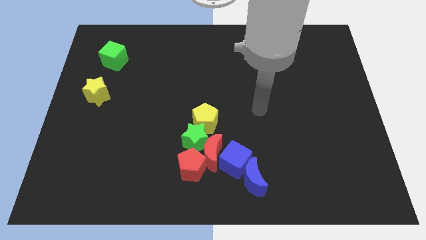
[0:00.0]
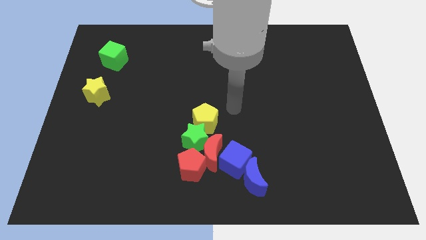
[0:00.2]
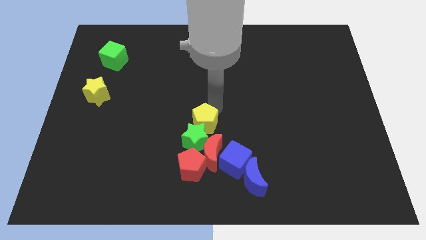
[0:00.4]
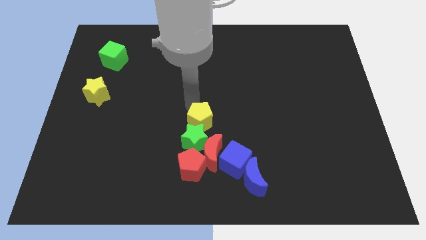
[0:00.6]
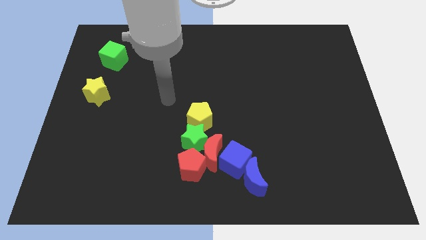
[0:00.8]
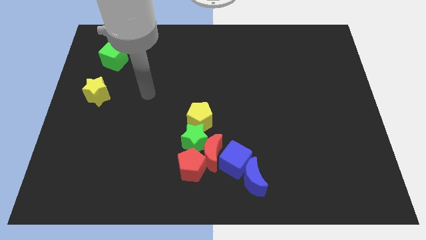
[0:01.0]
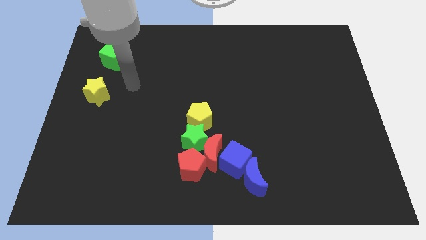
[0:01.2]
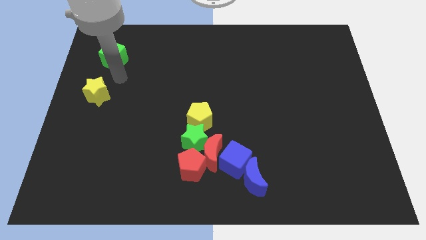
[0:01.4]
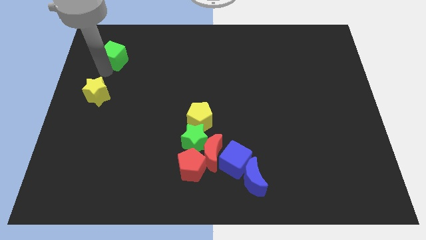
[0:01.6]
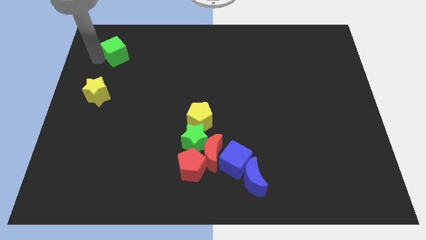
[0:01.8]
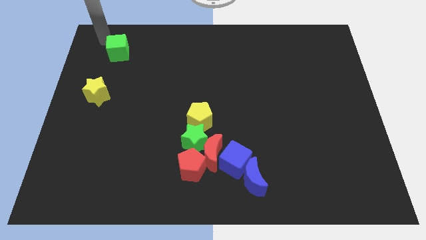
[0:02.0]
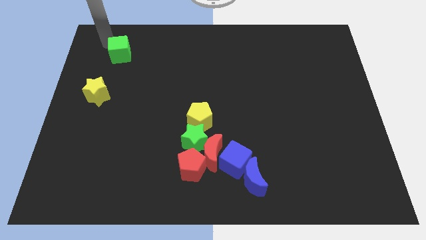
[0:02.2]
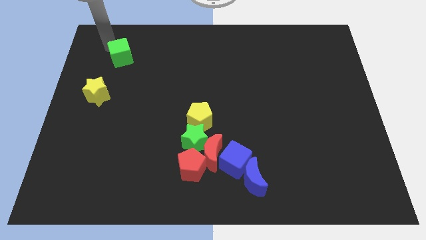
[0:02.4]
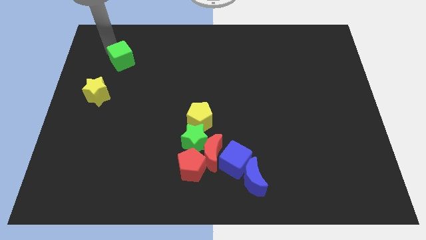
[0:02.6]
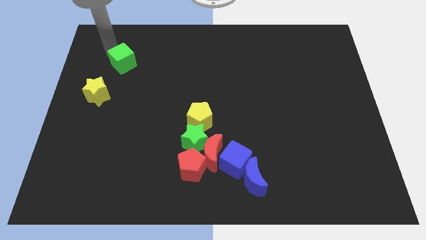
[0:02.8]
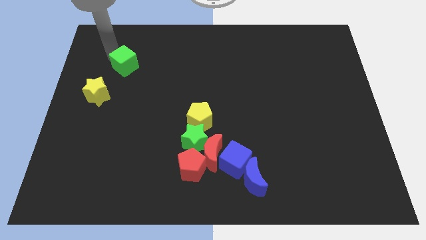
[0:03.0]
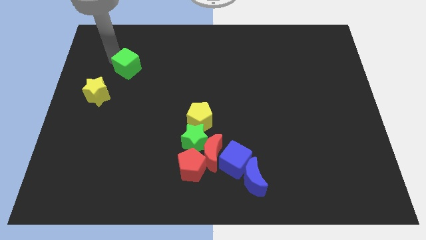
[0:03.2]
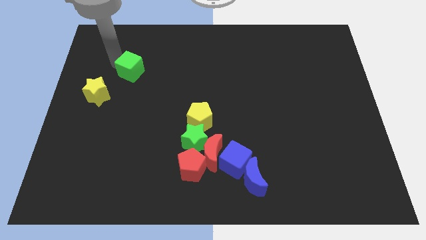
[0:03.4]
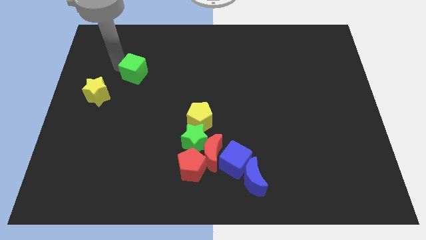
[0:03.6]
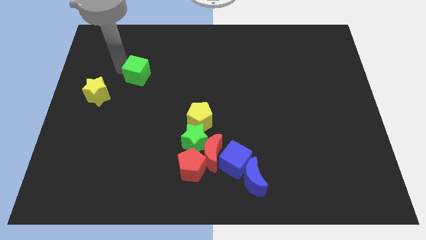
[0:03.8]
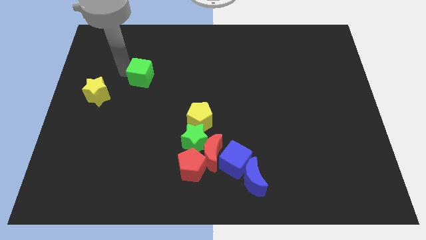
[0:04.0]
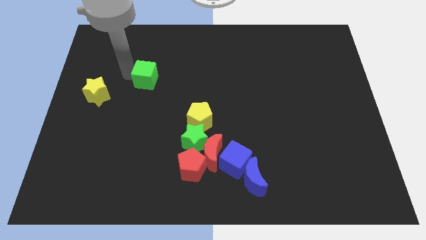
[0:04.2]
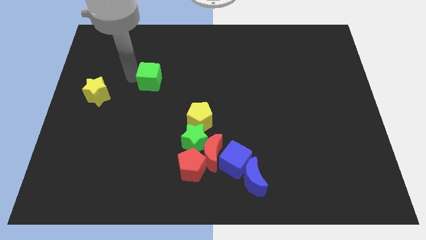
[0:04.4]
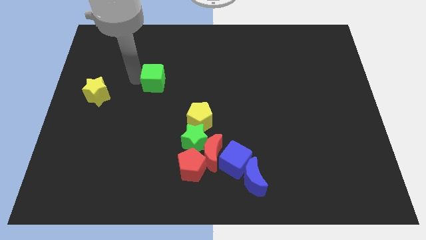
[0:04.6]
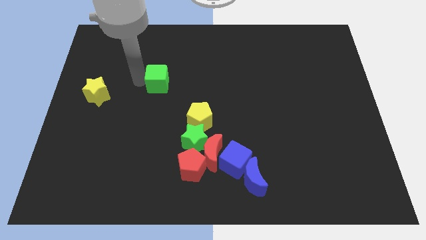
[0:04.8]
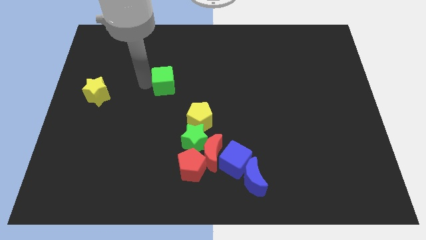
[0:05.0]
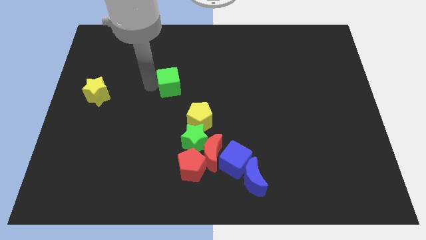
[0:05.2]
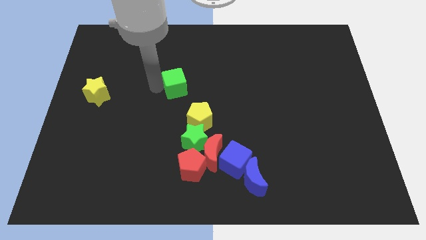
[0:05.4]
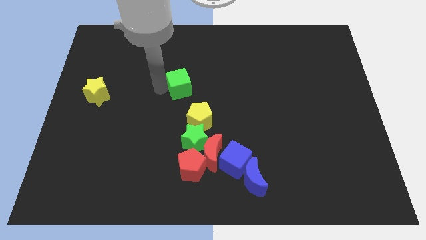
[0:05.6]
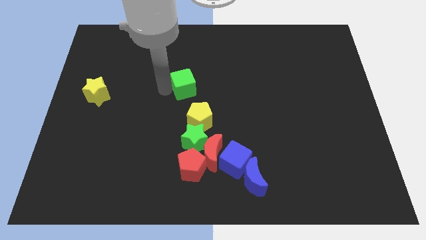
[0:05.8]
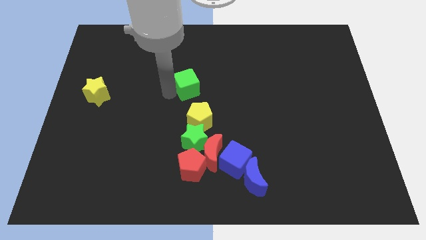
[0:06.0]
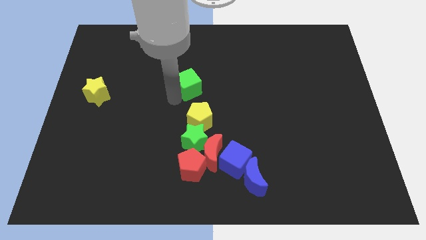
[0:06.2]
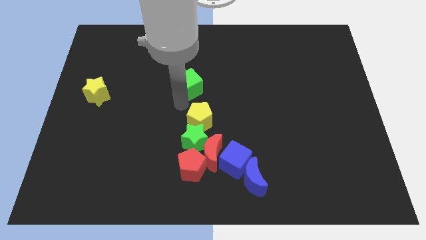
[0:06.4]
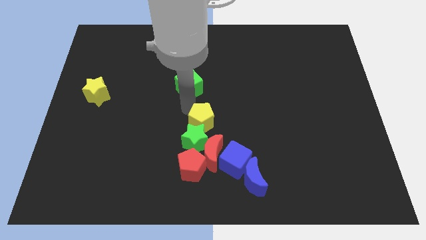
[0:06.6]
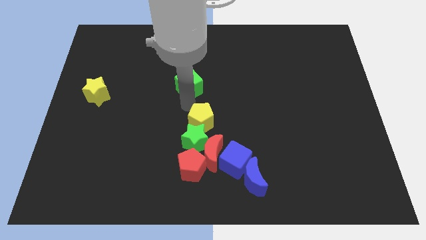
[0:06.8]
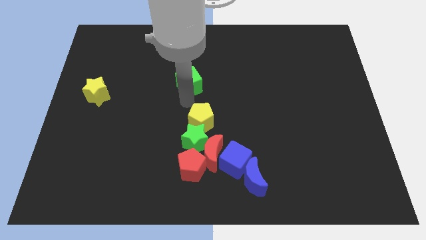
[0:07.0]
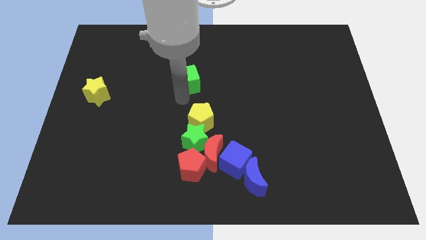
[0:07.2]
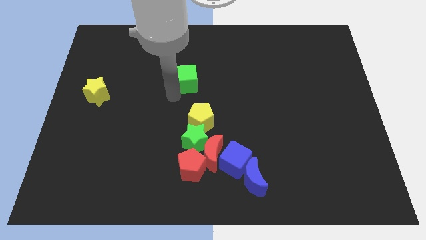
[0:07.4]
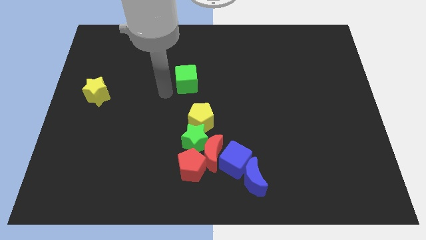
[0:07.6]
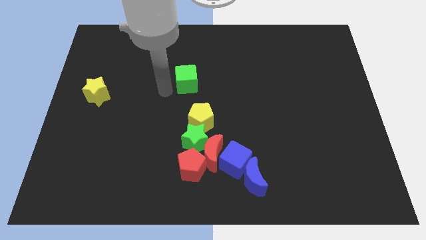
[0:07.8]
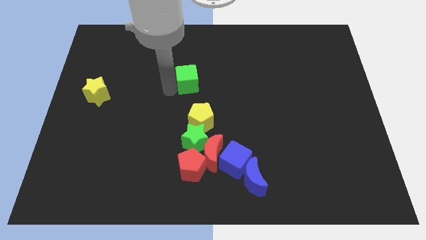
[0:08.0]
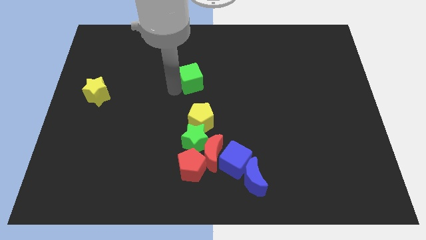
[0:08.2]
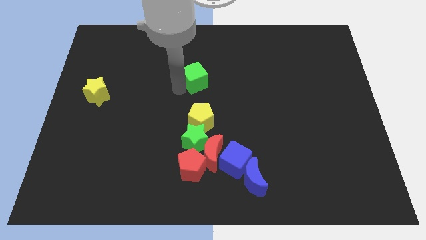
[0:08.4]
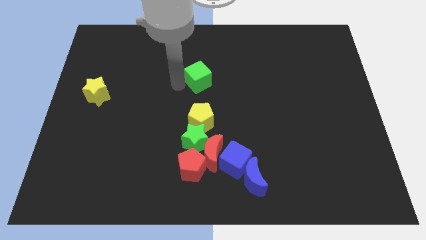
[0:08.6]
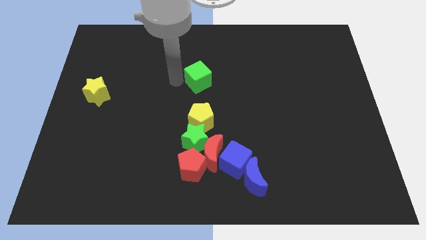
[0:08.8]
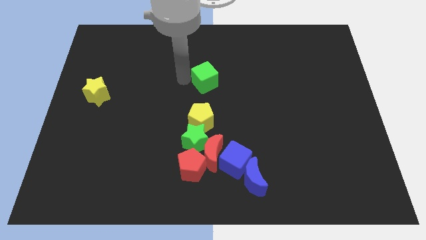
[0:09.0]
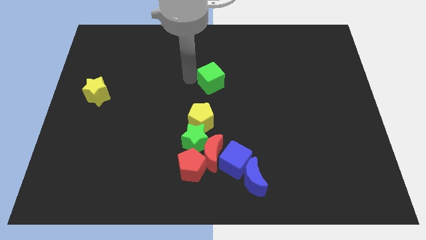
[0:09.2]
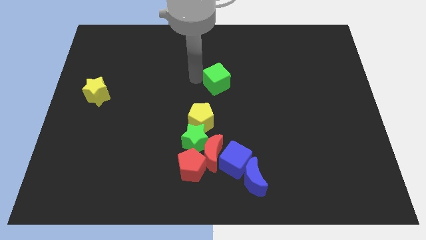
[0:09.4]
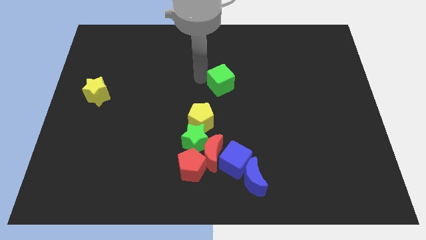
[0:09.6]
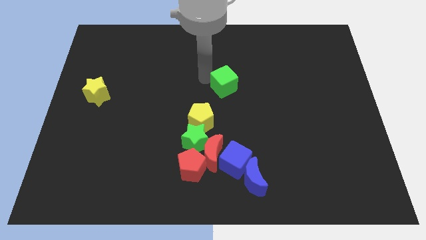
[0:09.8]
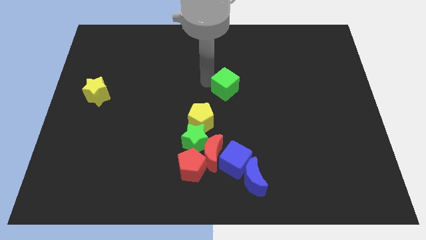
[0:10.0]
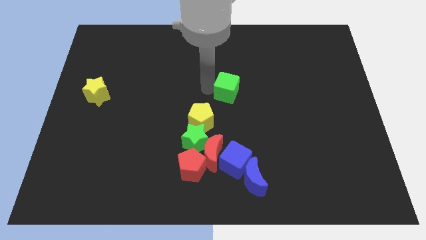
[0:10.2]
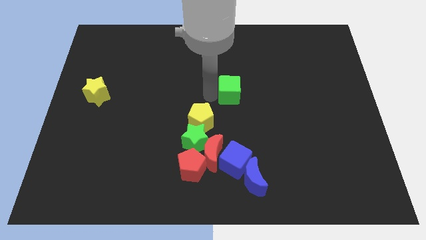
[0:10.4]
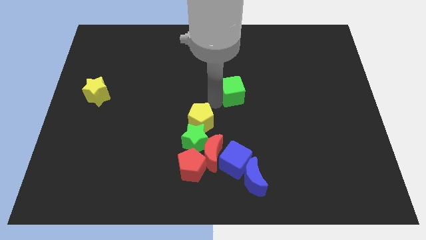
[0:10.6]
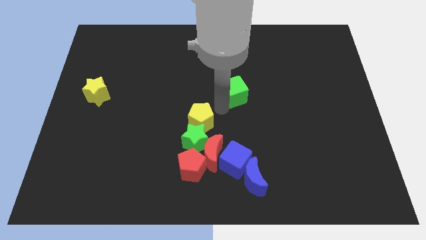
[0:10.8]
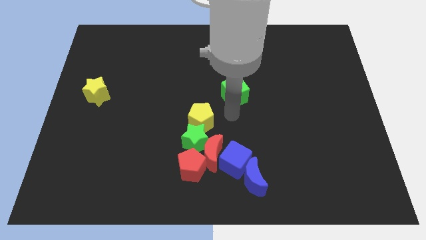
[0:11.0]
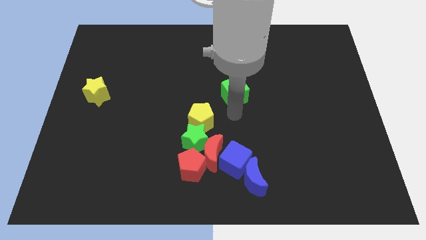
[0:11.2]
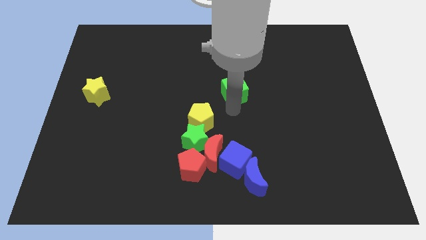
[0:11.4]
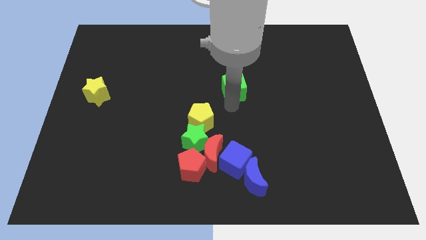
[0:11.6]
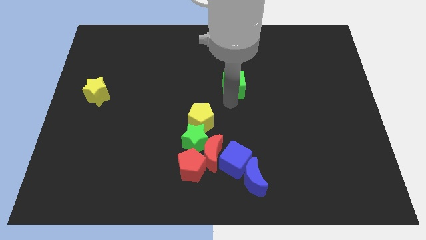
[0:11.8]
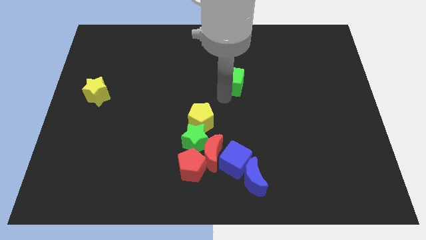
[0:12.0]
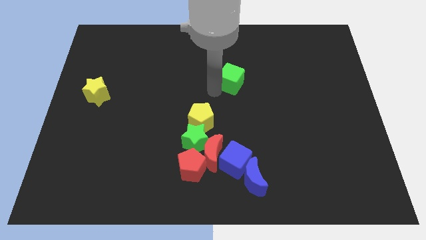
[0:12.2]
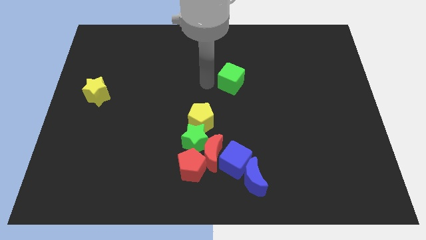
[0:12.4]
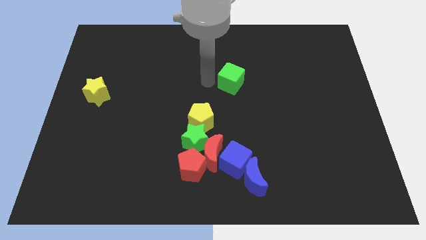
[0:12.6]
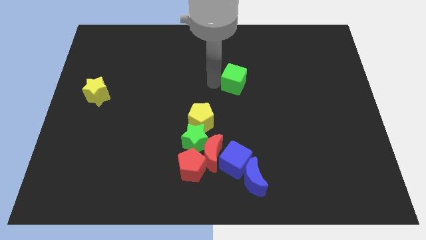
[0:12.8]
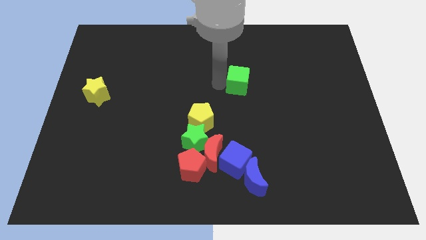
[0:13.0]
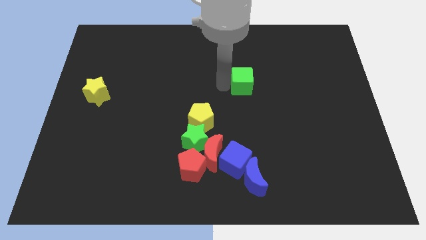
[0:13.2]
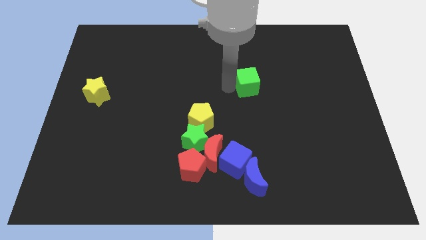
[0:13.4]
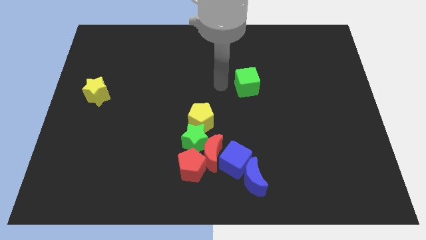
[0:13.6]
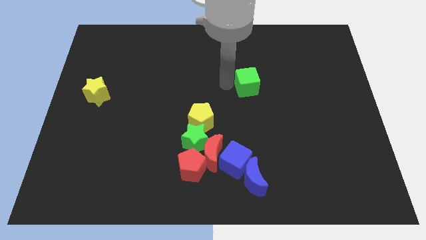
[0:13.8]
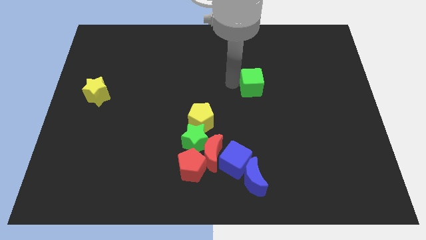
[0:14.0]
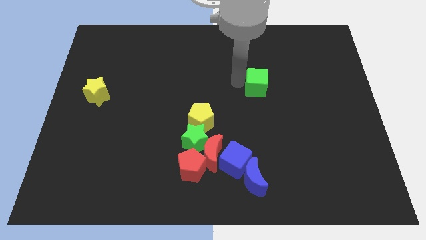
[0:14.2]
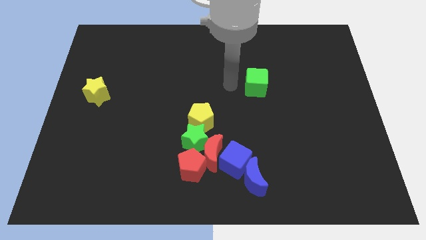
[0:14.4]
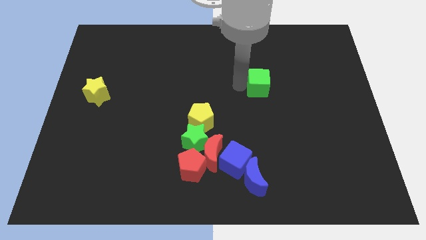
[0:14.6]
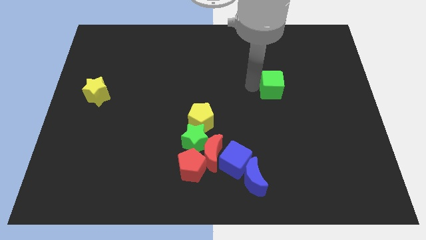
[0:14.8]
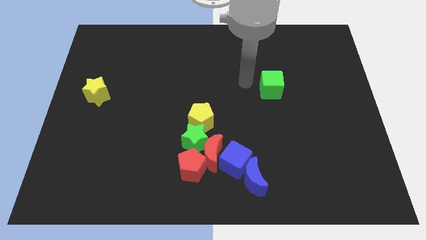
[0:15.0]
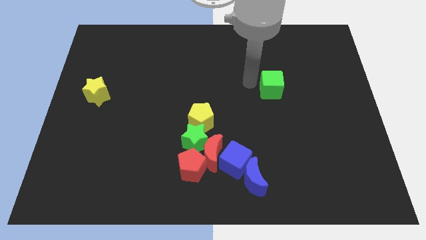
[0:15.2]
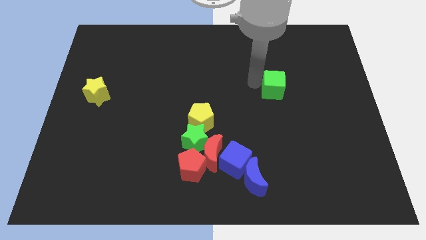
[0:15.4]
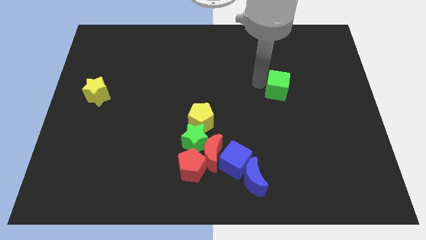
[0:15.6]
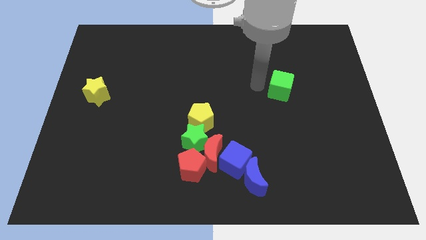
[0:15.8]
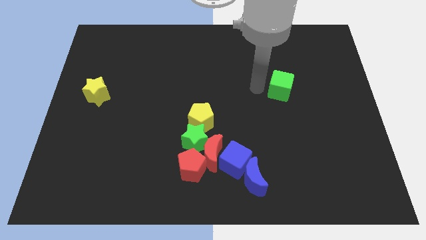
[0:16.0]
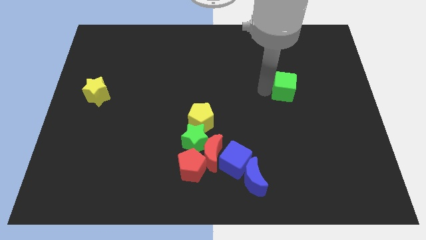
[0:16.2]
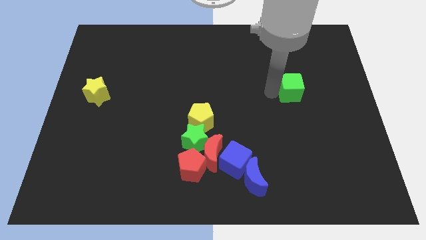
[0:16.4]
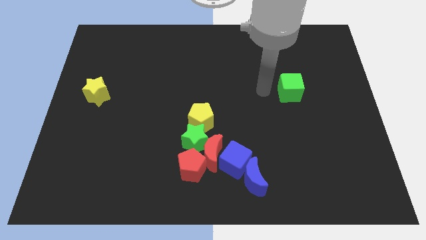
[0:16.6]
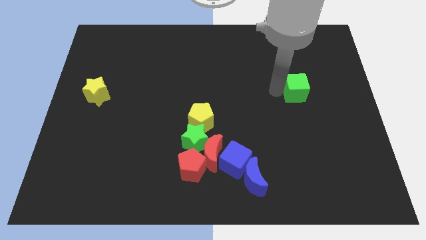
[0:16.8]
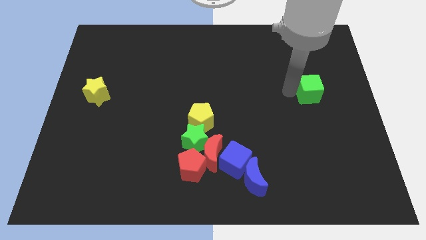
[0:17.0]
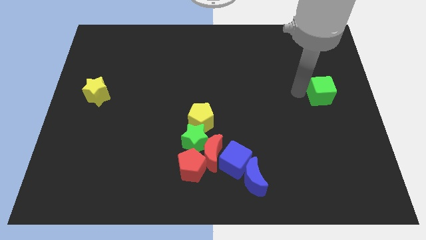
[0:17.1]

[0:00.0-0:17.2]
push the green cube to the right side
